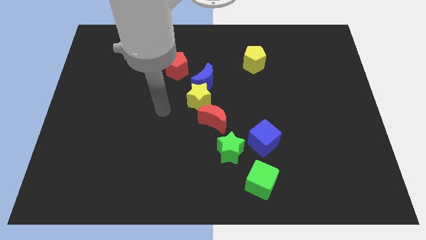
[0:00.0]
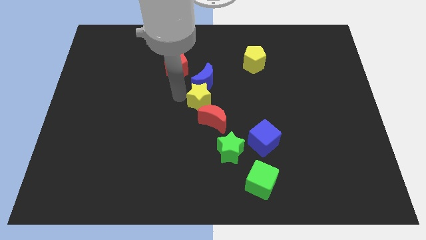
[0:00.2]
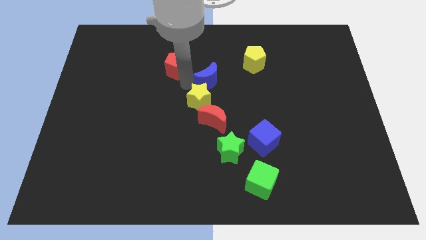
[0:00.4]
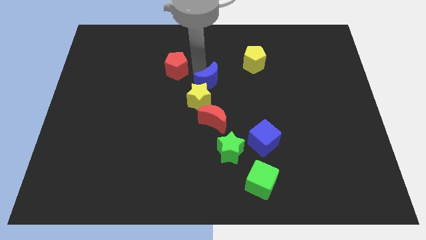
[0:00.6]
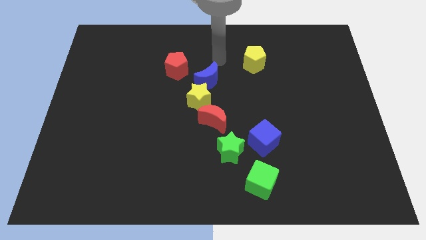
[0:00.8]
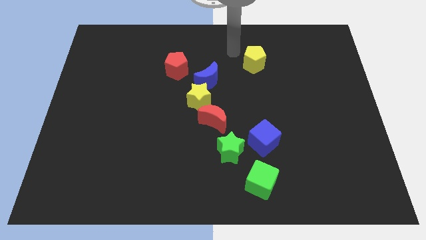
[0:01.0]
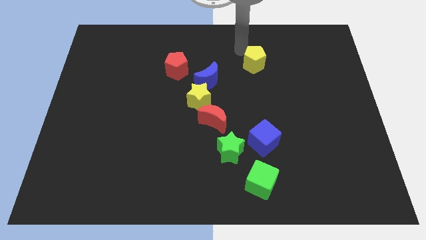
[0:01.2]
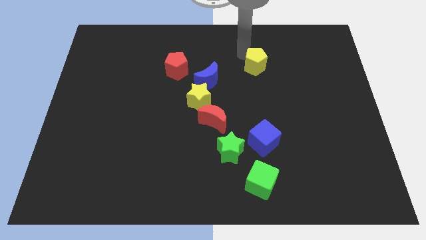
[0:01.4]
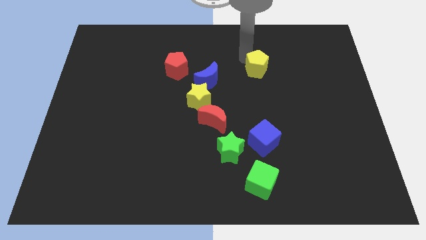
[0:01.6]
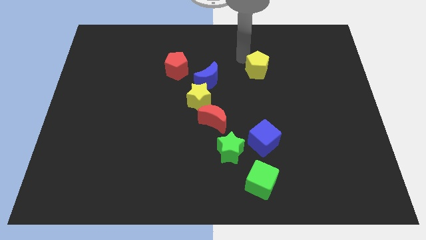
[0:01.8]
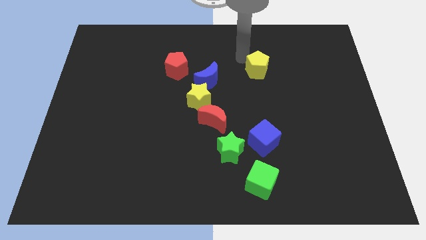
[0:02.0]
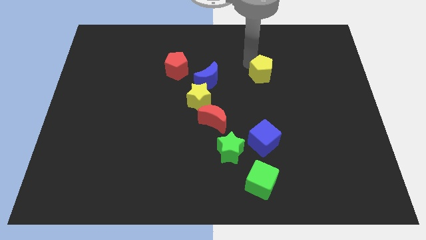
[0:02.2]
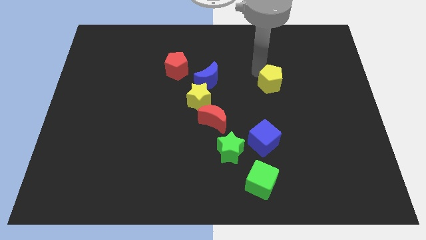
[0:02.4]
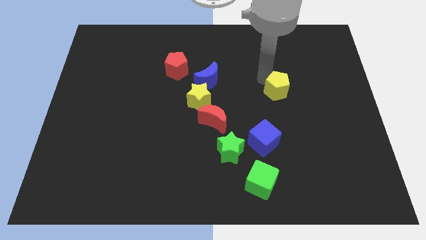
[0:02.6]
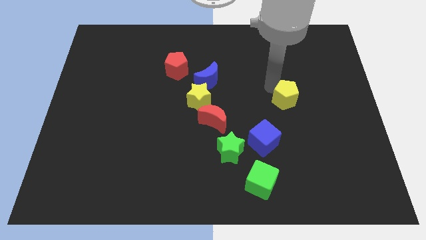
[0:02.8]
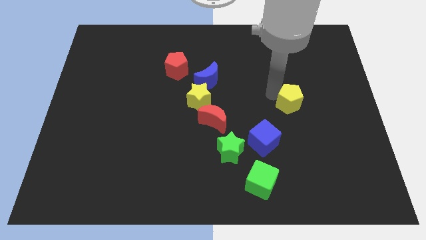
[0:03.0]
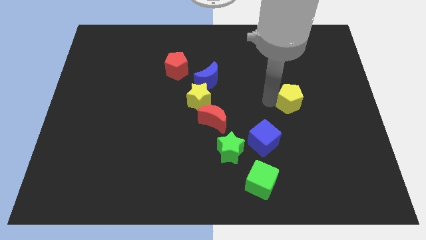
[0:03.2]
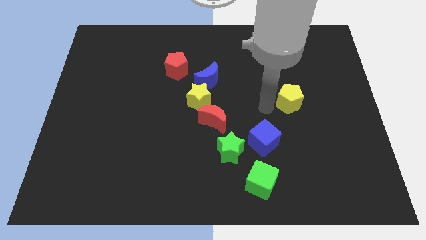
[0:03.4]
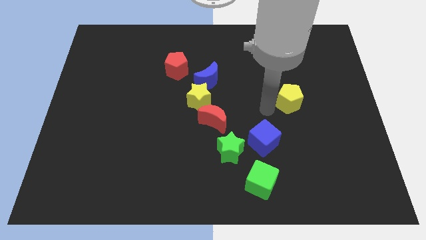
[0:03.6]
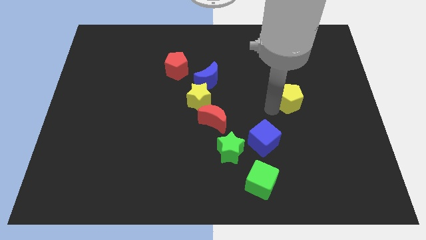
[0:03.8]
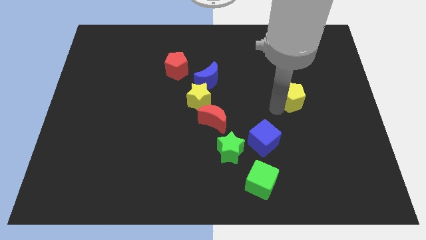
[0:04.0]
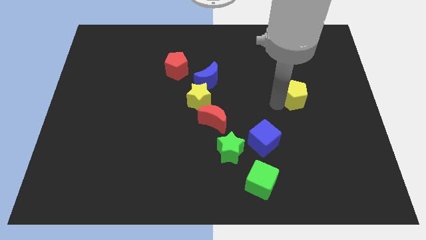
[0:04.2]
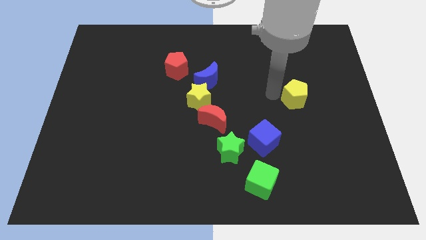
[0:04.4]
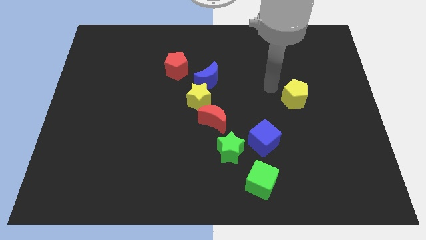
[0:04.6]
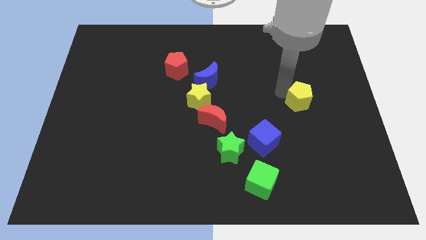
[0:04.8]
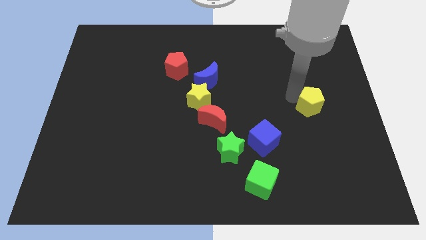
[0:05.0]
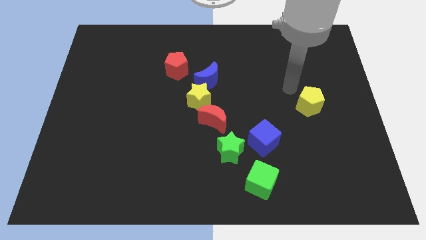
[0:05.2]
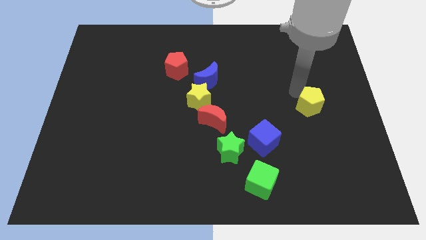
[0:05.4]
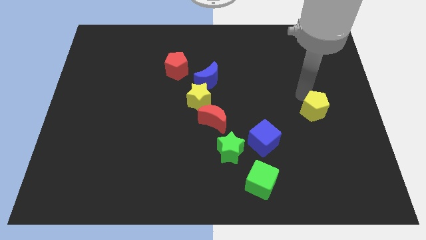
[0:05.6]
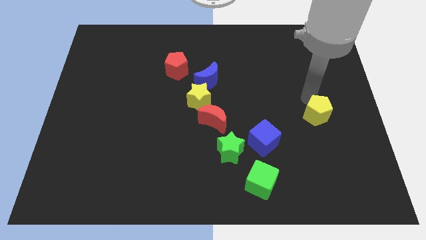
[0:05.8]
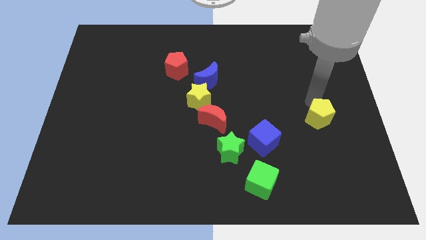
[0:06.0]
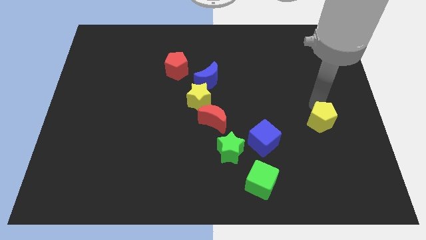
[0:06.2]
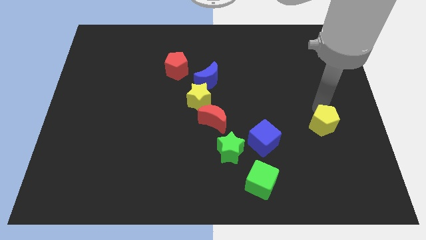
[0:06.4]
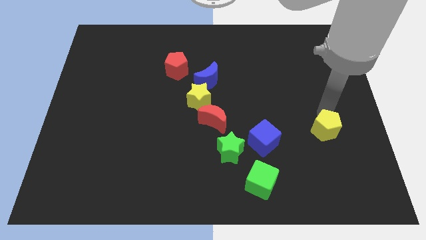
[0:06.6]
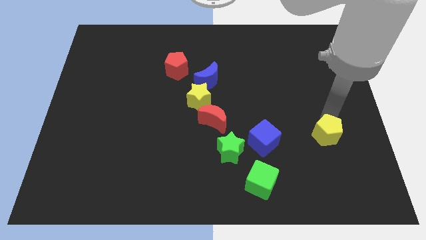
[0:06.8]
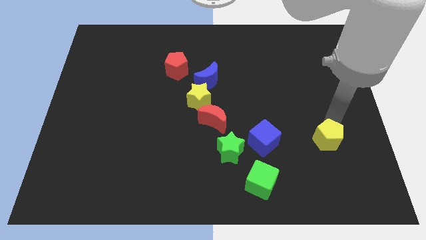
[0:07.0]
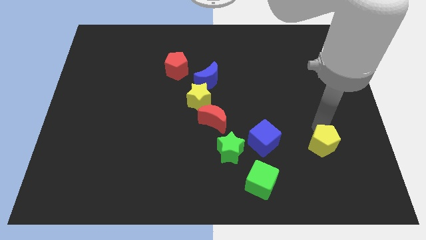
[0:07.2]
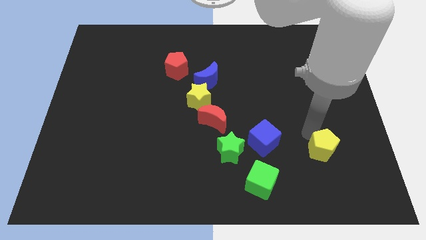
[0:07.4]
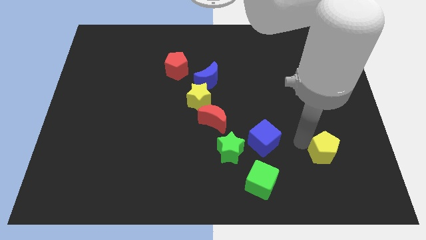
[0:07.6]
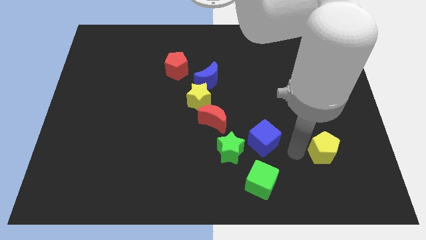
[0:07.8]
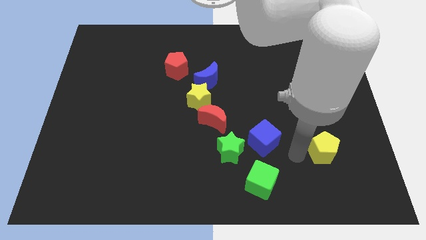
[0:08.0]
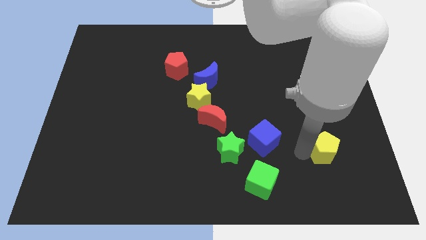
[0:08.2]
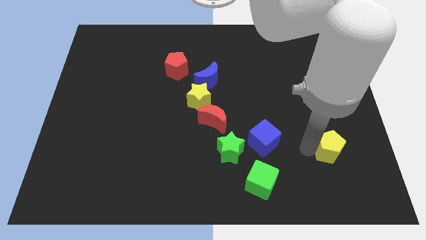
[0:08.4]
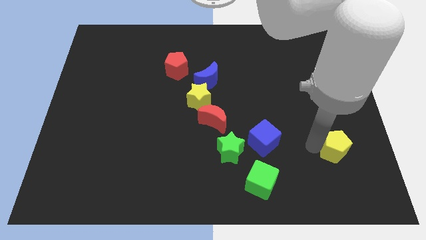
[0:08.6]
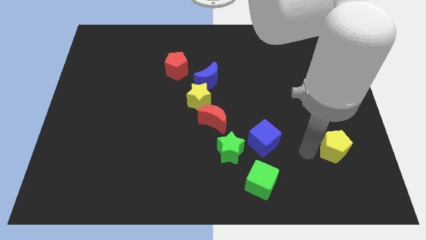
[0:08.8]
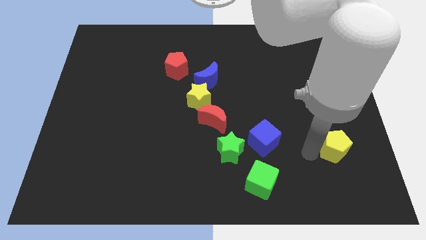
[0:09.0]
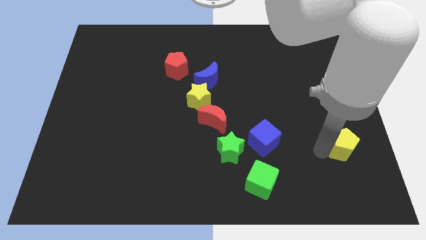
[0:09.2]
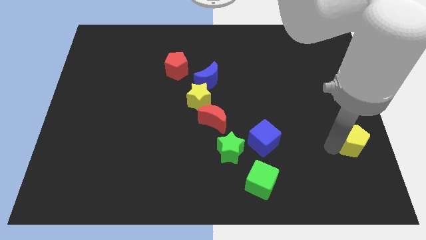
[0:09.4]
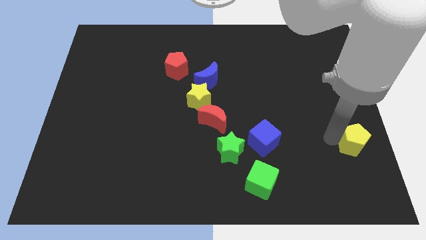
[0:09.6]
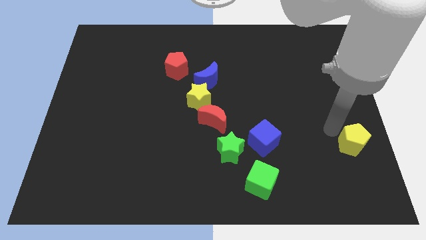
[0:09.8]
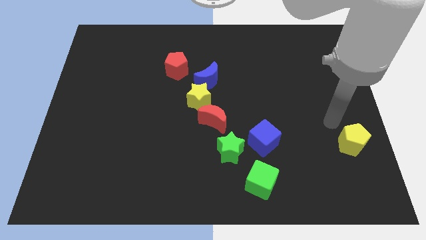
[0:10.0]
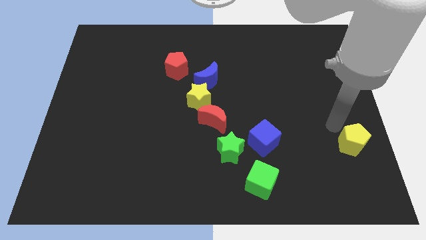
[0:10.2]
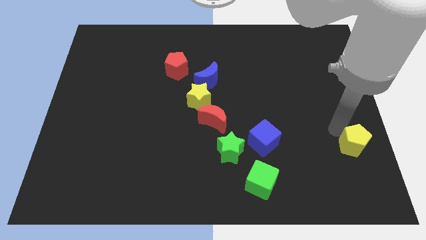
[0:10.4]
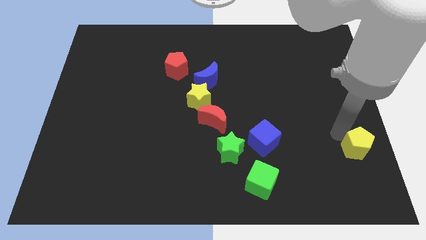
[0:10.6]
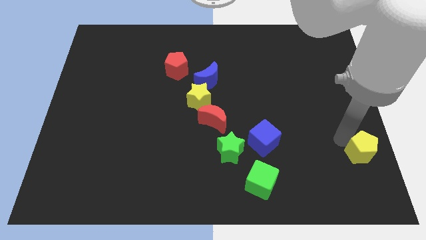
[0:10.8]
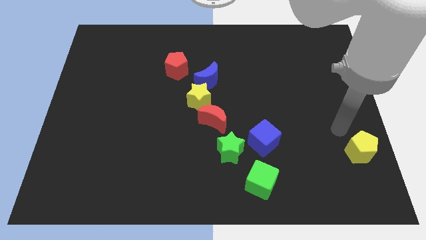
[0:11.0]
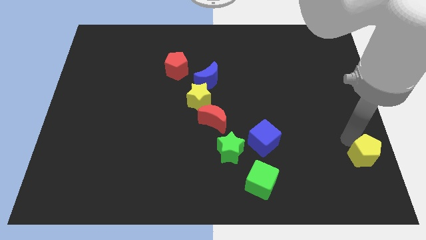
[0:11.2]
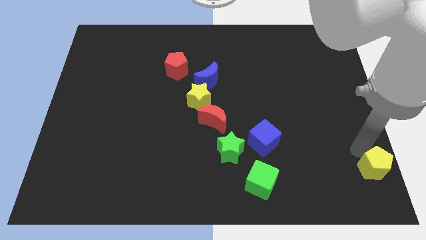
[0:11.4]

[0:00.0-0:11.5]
move the yellow pentagon to the lower right corner
